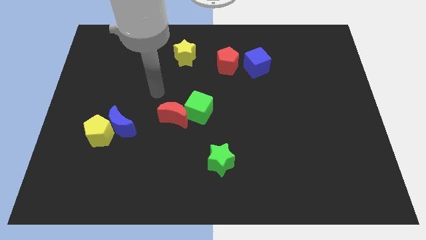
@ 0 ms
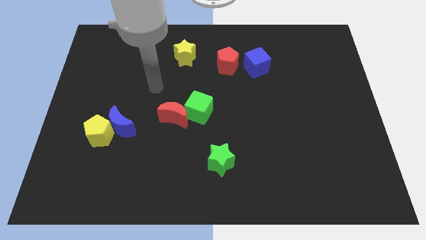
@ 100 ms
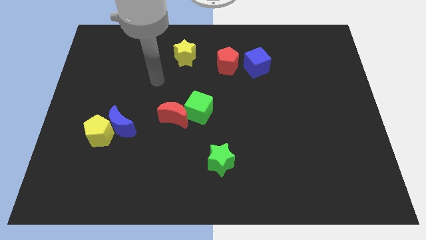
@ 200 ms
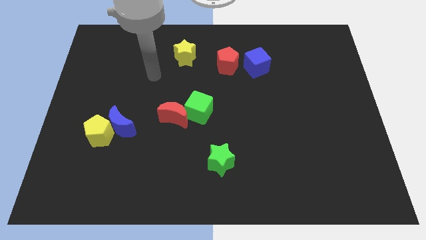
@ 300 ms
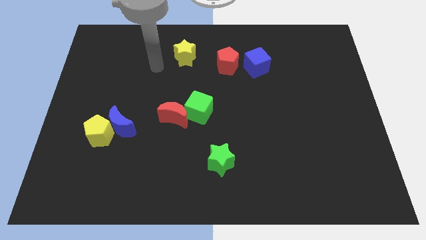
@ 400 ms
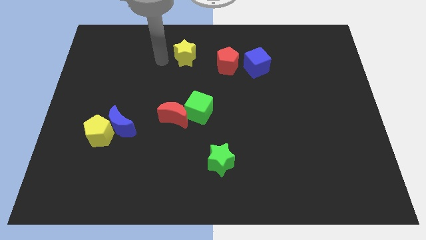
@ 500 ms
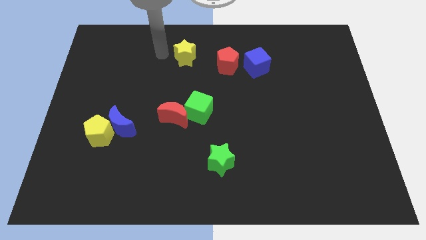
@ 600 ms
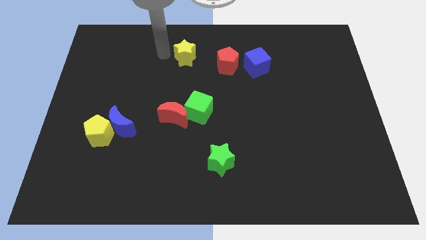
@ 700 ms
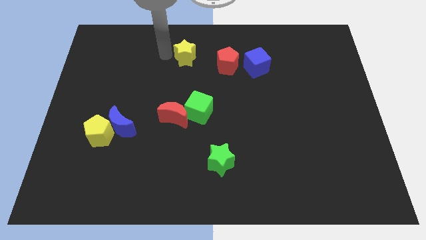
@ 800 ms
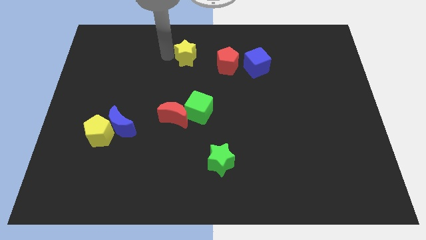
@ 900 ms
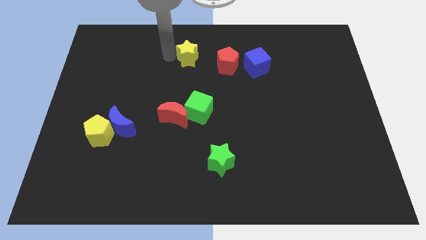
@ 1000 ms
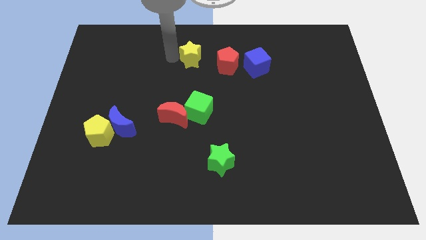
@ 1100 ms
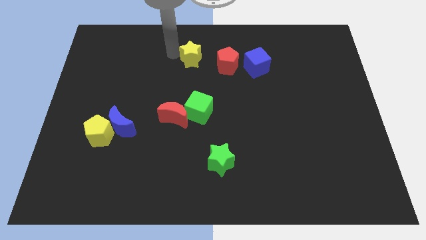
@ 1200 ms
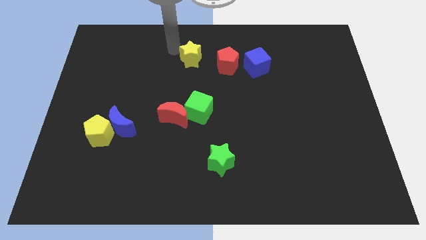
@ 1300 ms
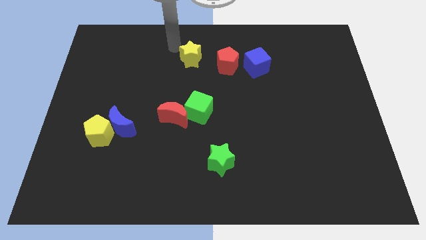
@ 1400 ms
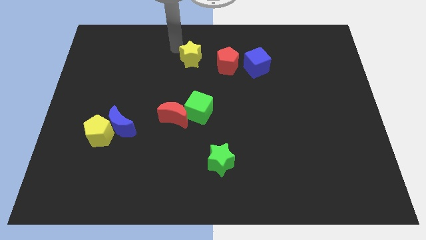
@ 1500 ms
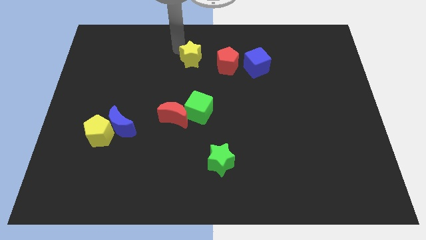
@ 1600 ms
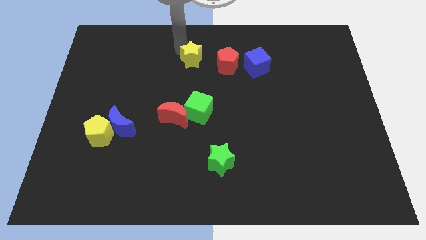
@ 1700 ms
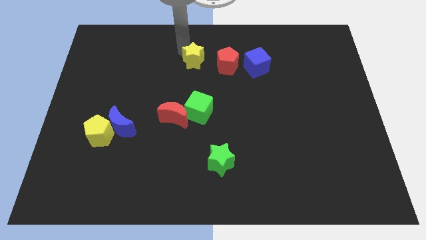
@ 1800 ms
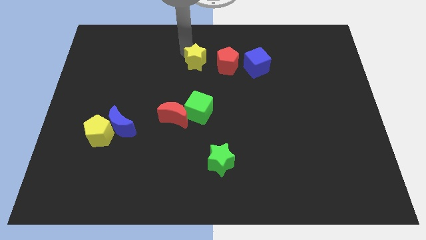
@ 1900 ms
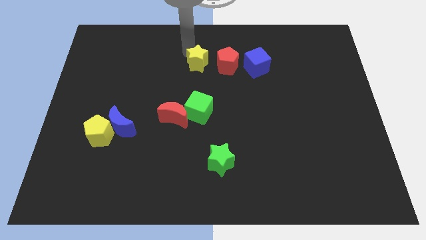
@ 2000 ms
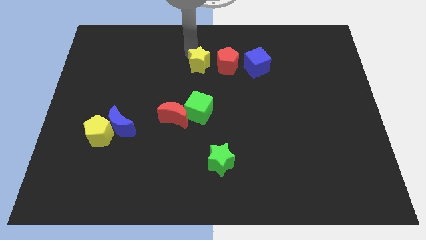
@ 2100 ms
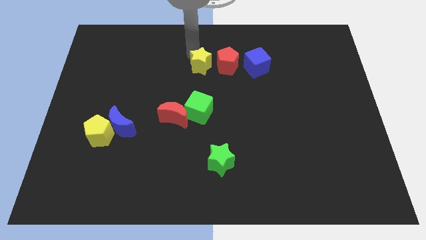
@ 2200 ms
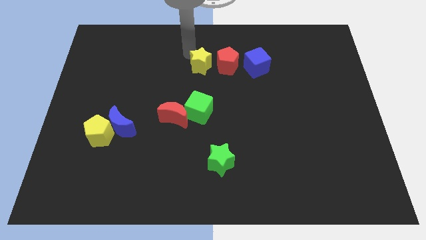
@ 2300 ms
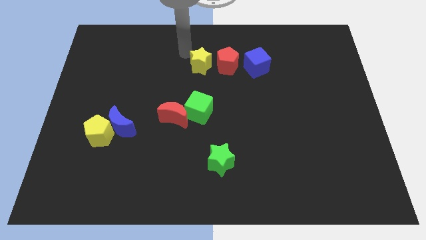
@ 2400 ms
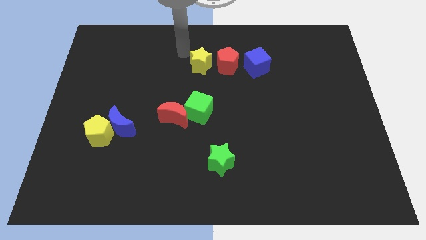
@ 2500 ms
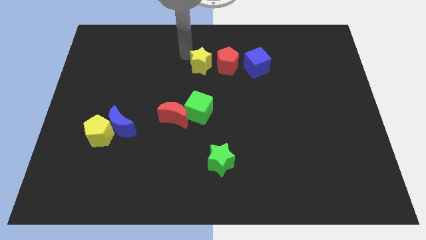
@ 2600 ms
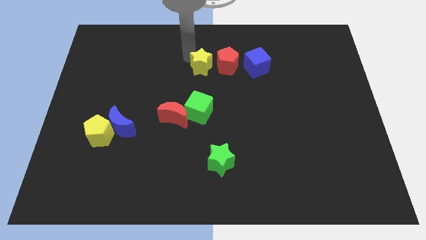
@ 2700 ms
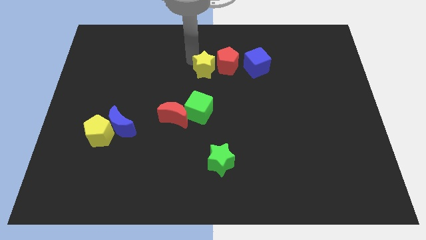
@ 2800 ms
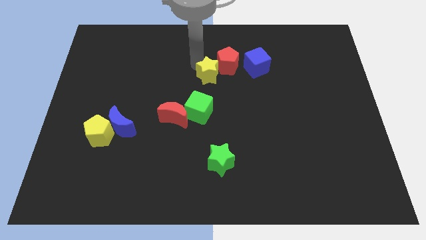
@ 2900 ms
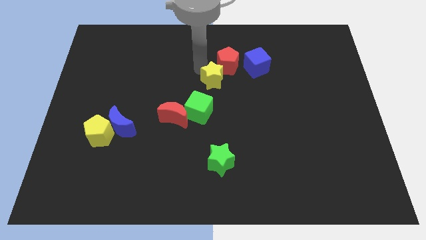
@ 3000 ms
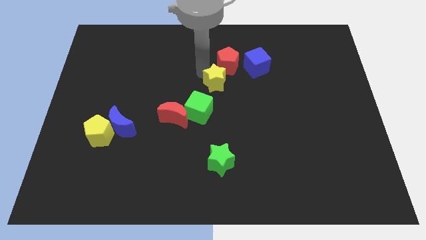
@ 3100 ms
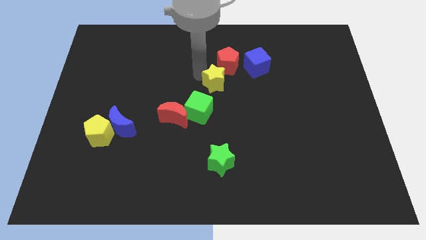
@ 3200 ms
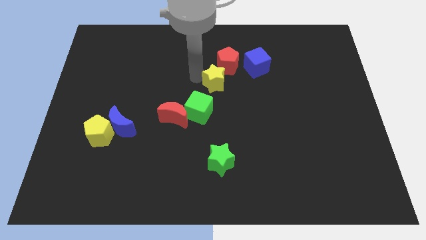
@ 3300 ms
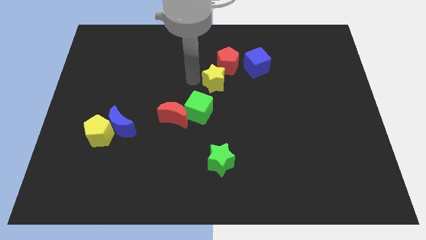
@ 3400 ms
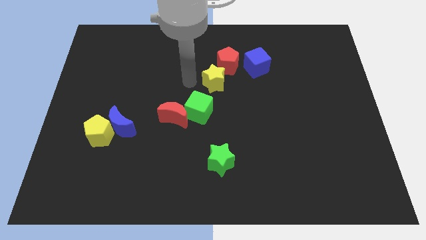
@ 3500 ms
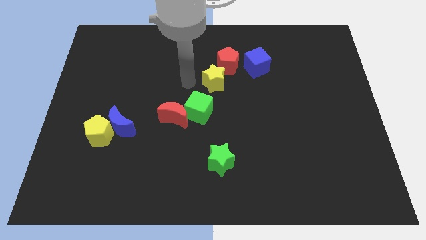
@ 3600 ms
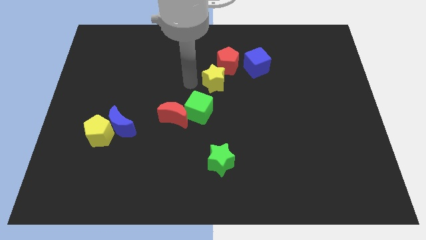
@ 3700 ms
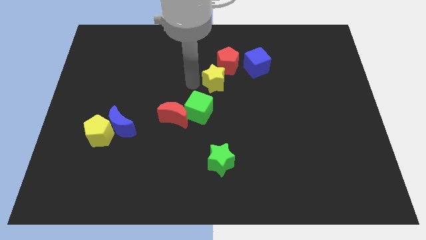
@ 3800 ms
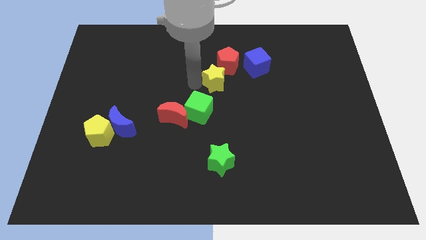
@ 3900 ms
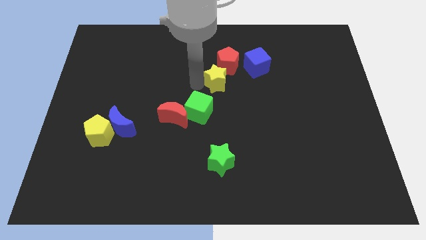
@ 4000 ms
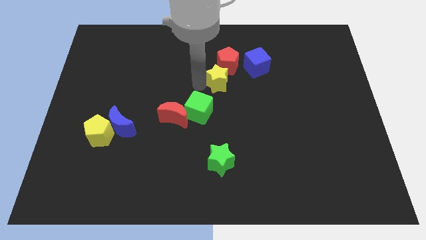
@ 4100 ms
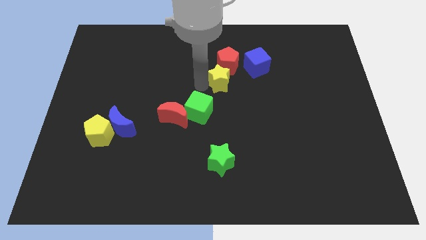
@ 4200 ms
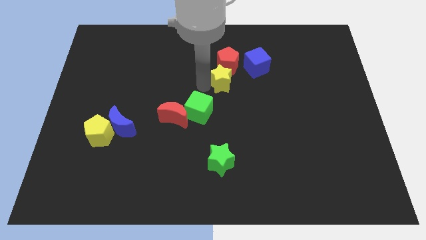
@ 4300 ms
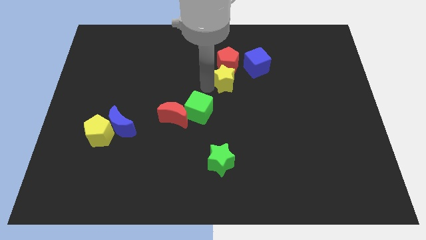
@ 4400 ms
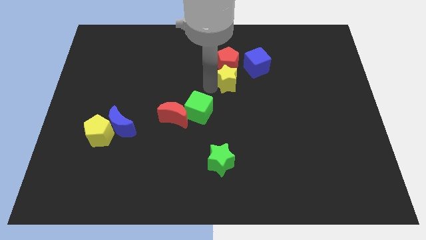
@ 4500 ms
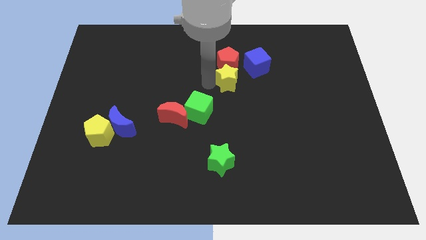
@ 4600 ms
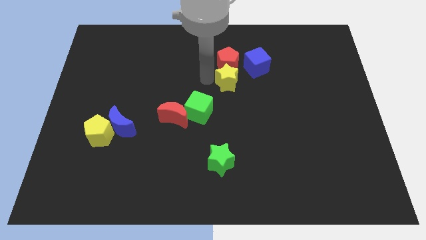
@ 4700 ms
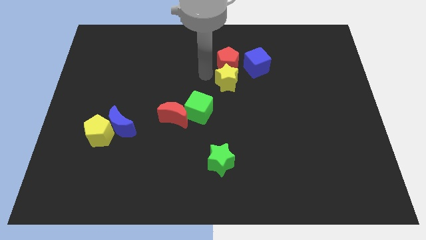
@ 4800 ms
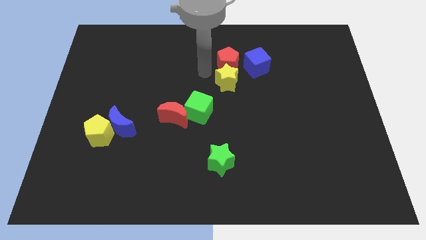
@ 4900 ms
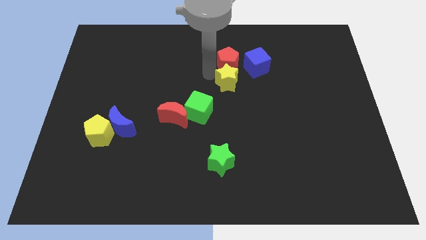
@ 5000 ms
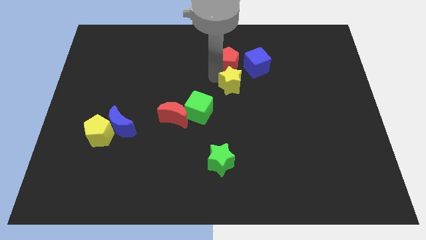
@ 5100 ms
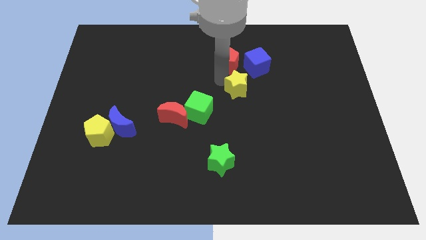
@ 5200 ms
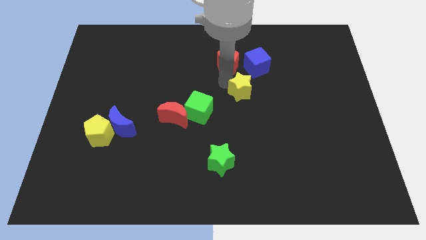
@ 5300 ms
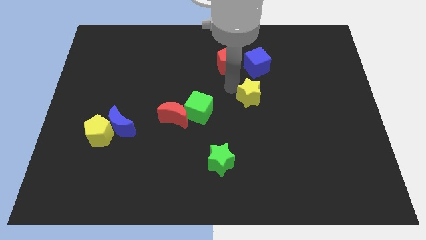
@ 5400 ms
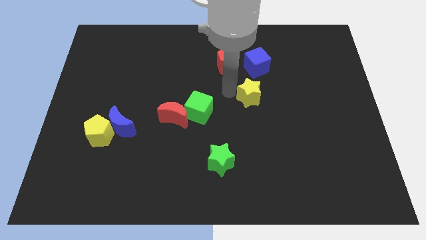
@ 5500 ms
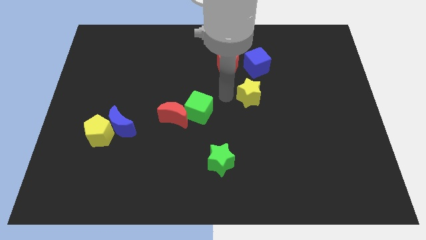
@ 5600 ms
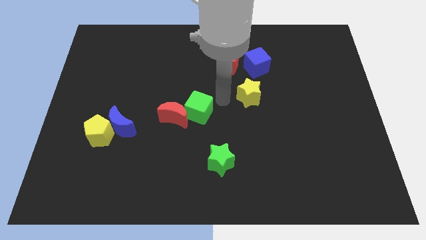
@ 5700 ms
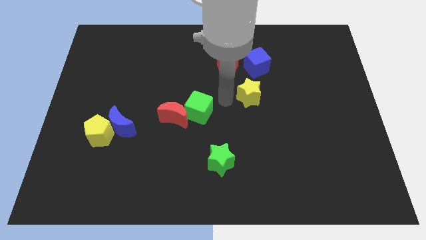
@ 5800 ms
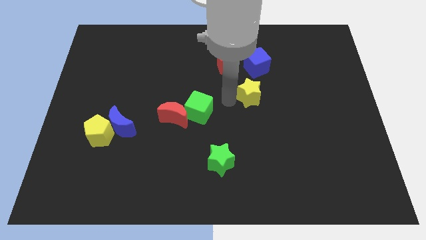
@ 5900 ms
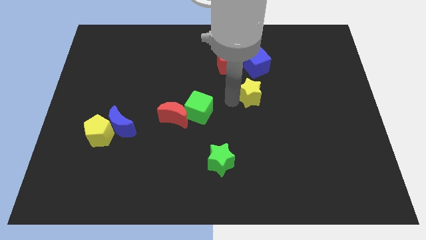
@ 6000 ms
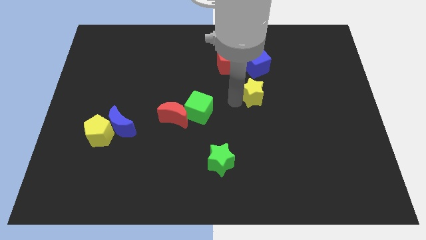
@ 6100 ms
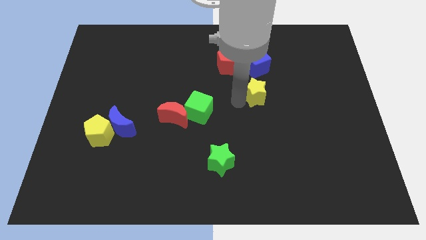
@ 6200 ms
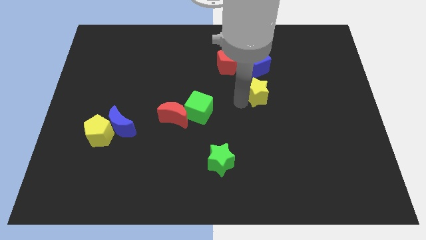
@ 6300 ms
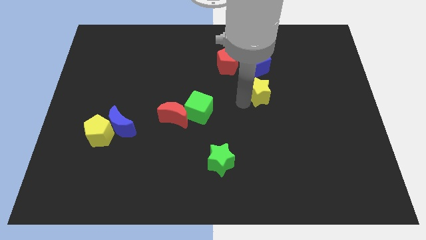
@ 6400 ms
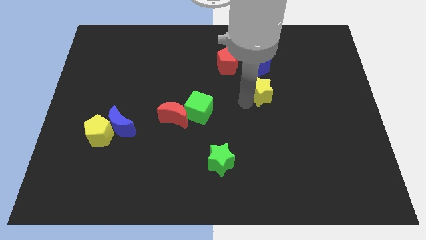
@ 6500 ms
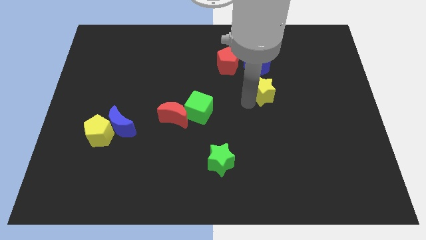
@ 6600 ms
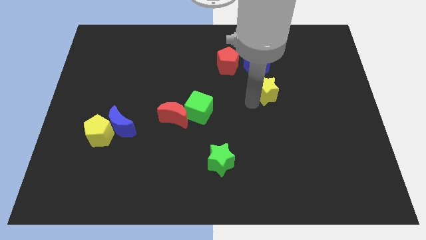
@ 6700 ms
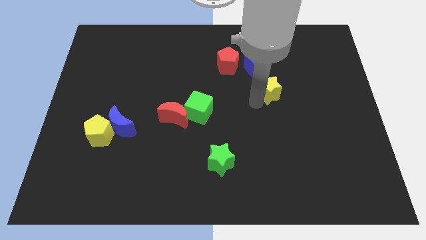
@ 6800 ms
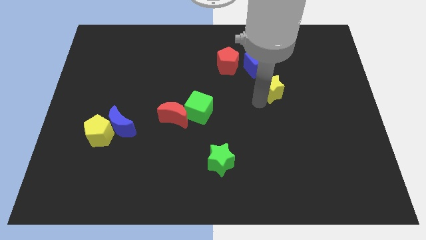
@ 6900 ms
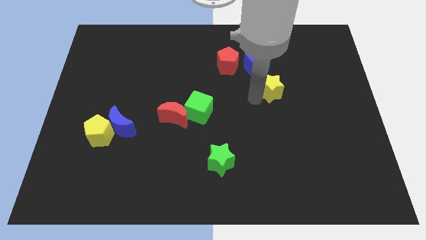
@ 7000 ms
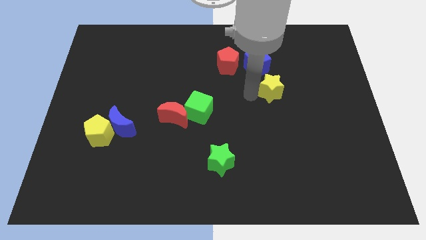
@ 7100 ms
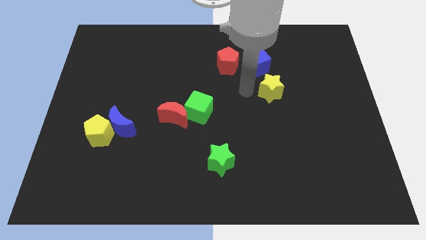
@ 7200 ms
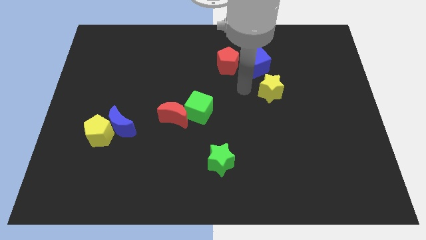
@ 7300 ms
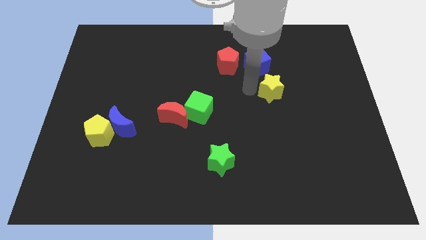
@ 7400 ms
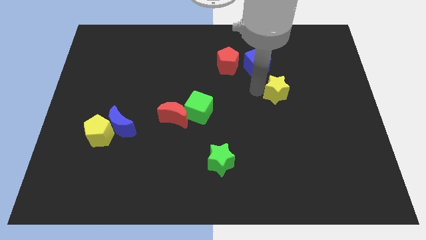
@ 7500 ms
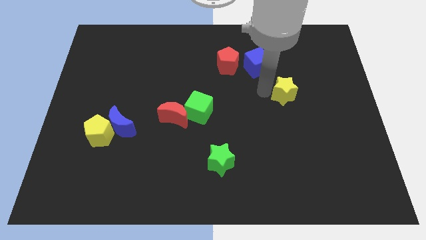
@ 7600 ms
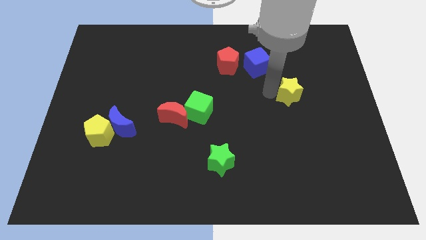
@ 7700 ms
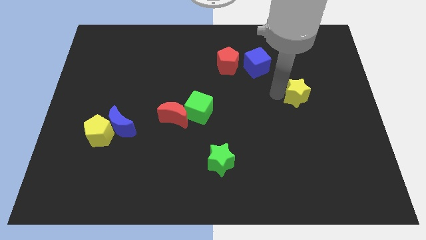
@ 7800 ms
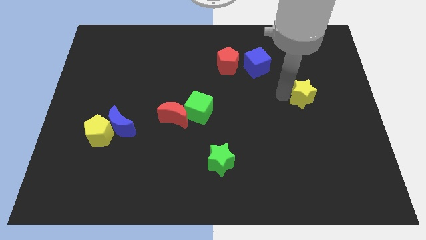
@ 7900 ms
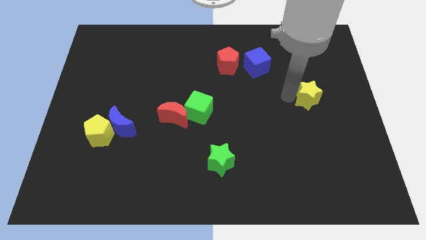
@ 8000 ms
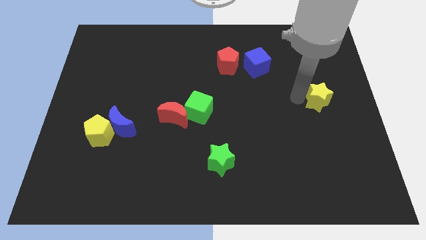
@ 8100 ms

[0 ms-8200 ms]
push the yellow star to the center right
